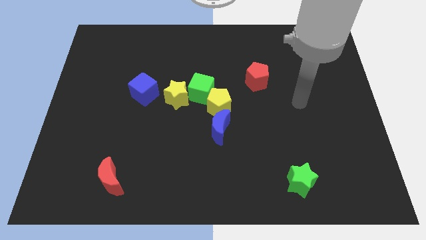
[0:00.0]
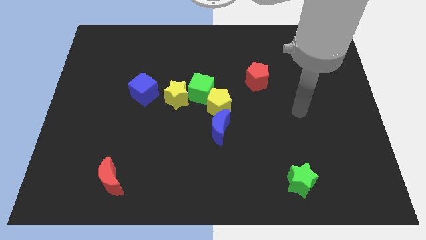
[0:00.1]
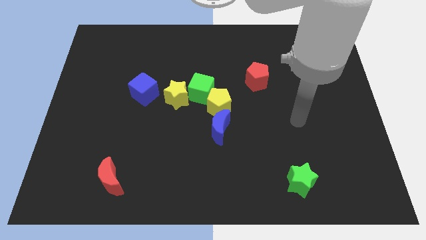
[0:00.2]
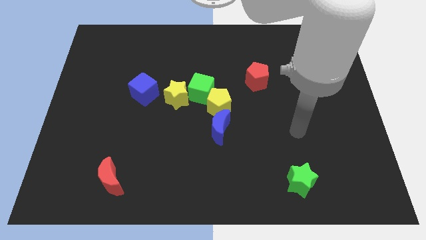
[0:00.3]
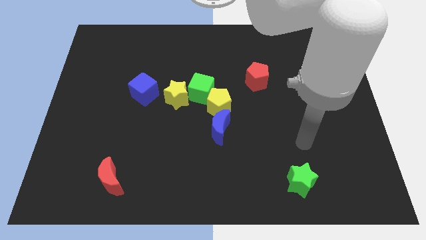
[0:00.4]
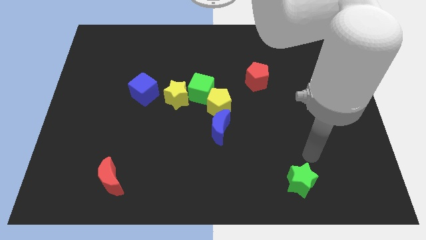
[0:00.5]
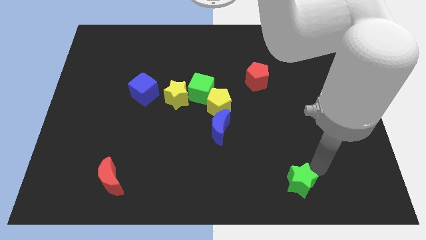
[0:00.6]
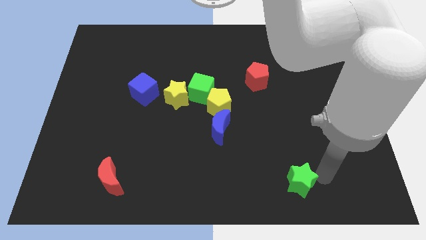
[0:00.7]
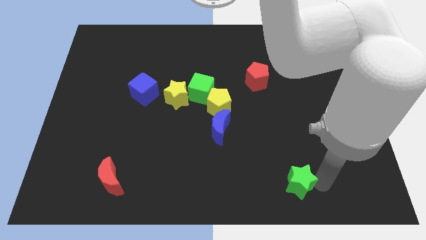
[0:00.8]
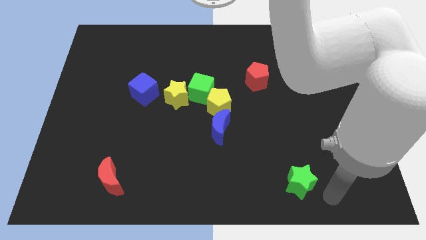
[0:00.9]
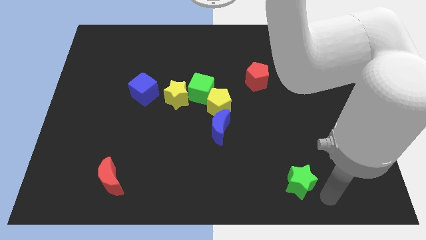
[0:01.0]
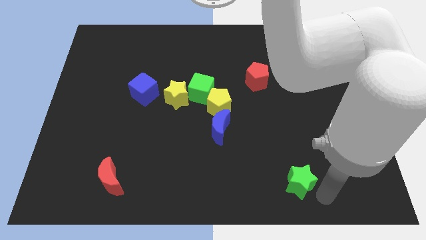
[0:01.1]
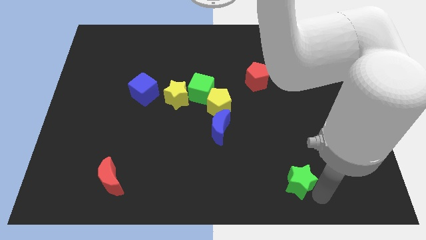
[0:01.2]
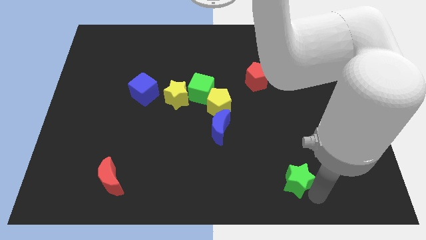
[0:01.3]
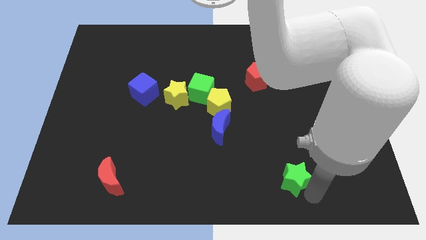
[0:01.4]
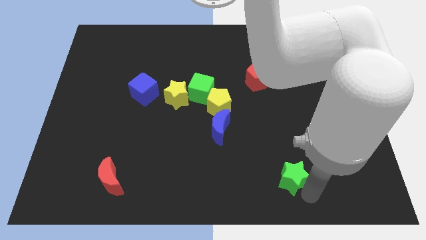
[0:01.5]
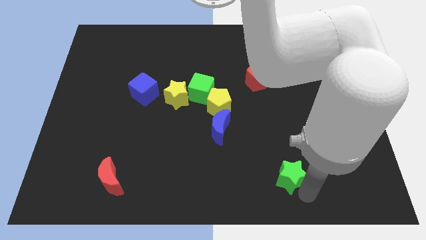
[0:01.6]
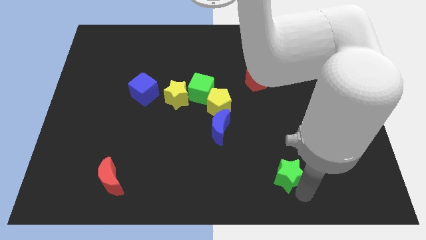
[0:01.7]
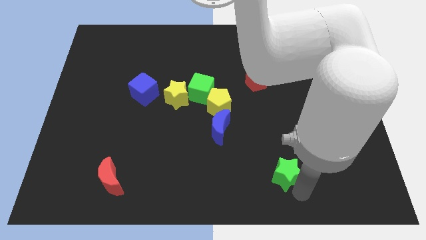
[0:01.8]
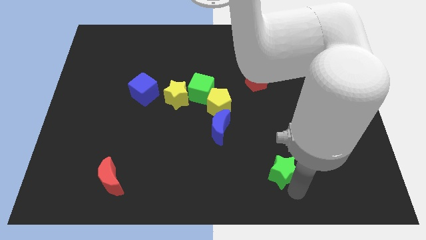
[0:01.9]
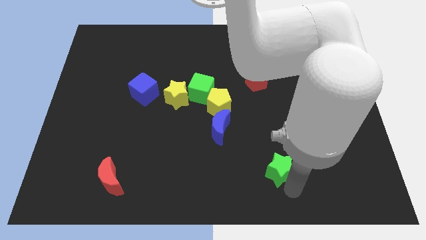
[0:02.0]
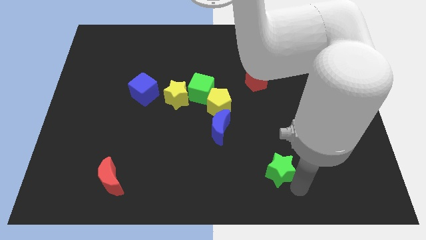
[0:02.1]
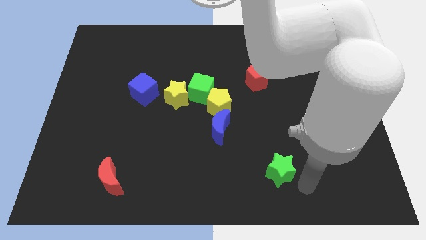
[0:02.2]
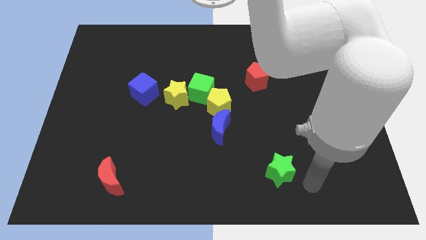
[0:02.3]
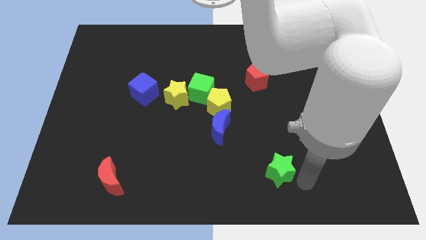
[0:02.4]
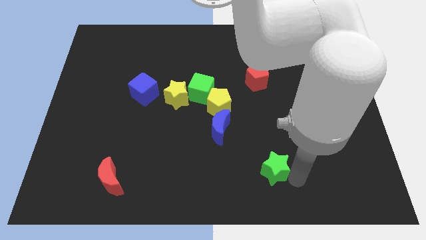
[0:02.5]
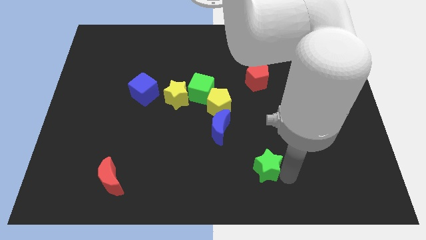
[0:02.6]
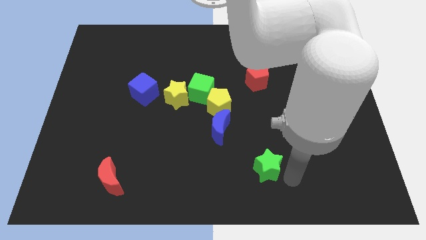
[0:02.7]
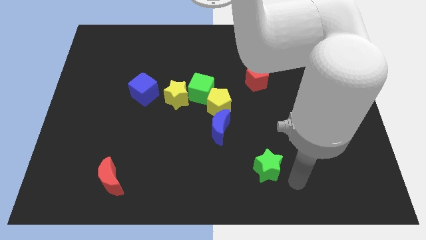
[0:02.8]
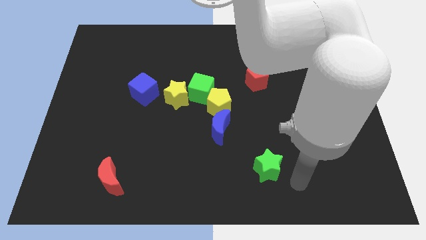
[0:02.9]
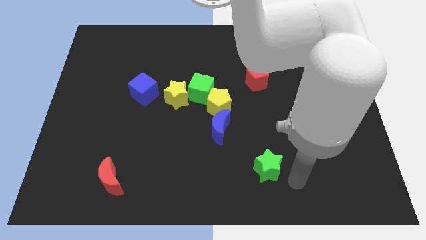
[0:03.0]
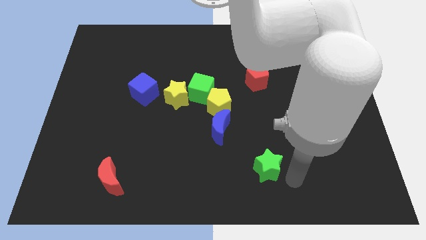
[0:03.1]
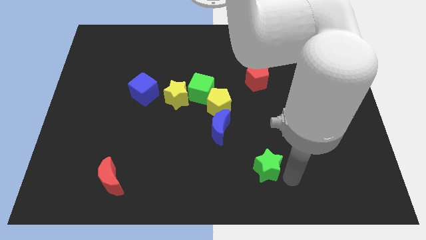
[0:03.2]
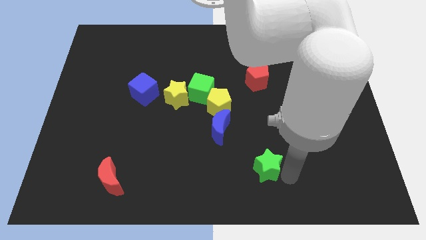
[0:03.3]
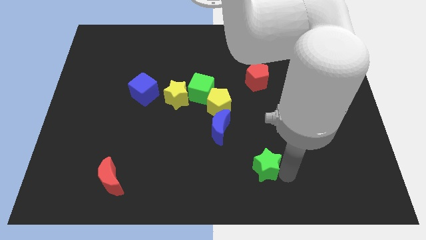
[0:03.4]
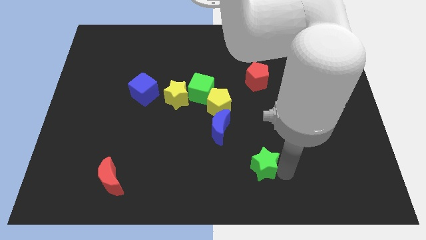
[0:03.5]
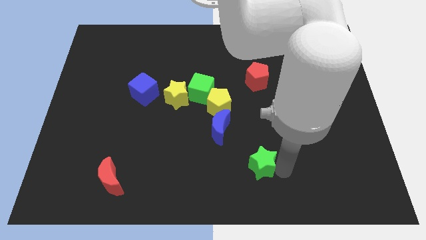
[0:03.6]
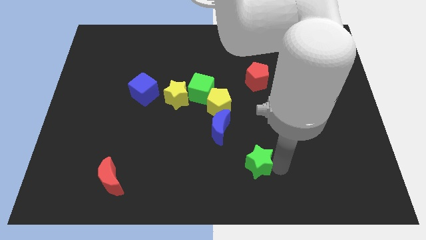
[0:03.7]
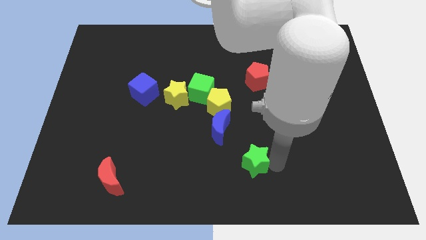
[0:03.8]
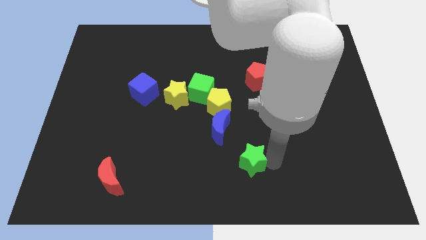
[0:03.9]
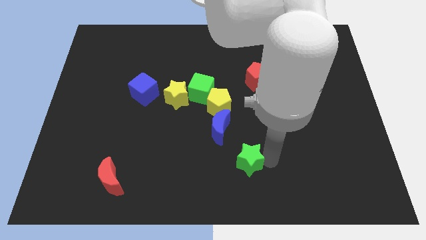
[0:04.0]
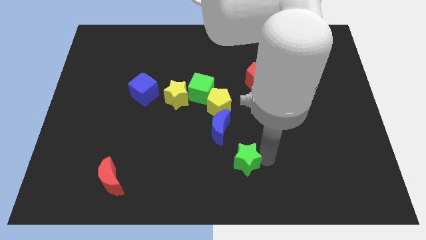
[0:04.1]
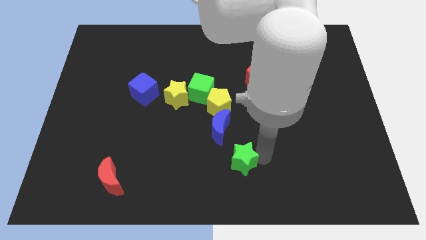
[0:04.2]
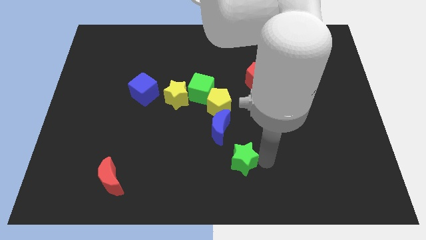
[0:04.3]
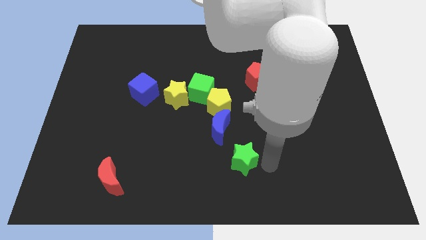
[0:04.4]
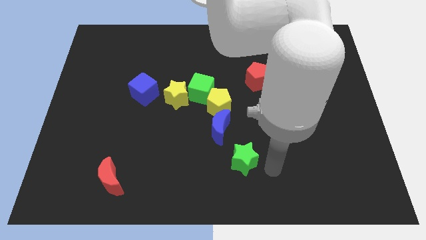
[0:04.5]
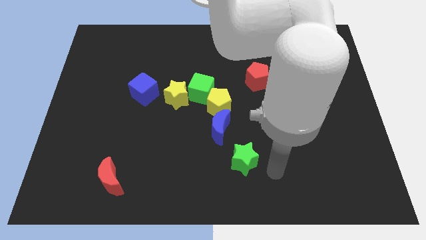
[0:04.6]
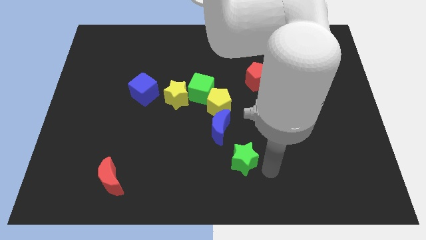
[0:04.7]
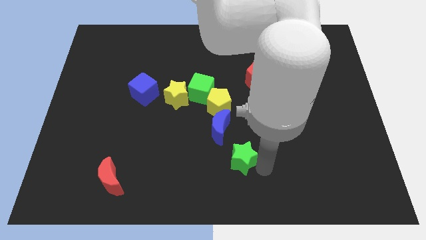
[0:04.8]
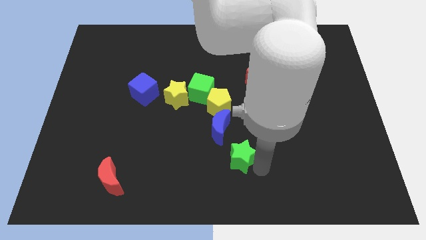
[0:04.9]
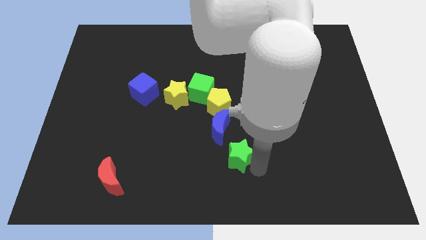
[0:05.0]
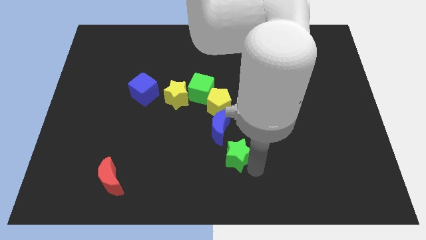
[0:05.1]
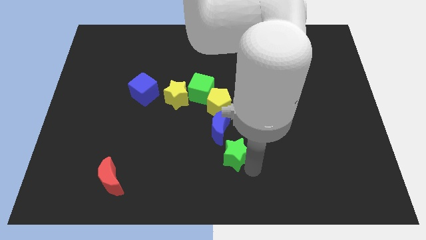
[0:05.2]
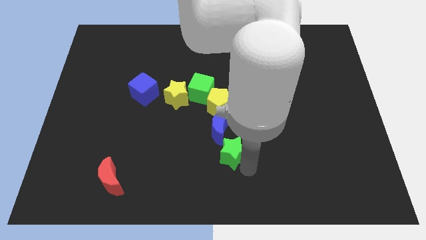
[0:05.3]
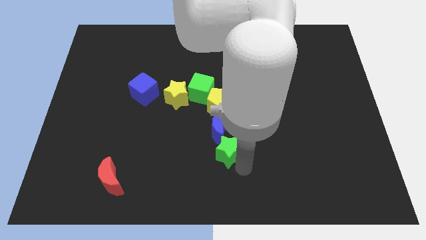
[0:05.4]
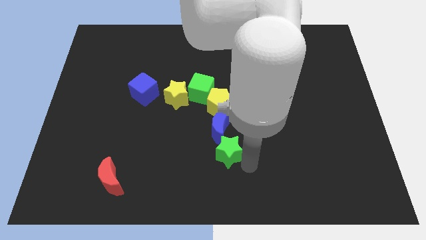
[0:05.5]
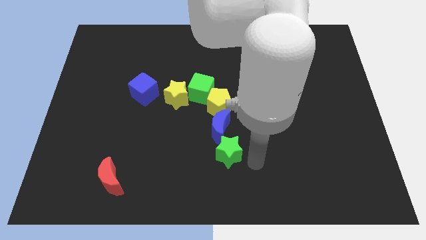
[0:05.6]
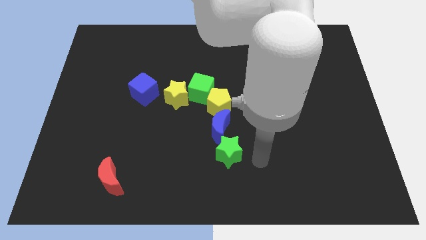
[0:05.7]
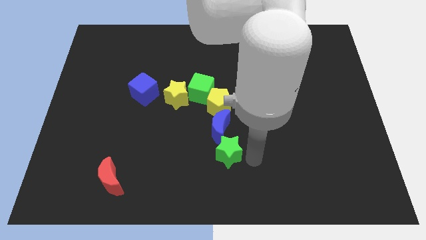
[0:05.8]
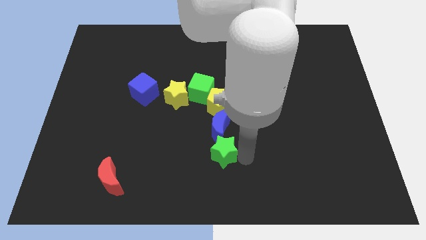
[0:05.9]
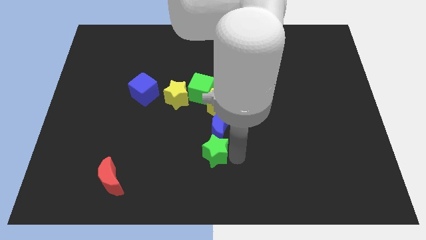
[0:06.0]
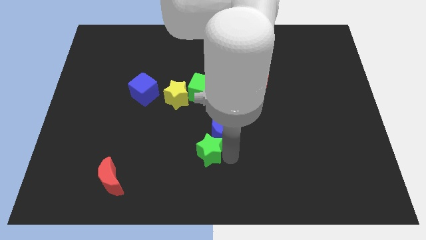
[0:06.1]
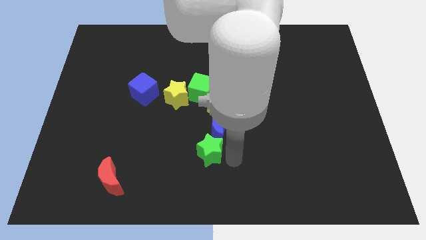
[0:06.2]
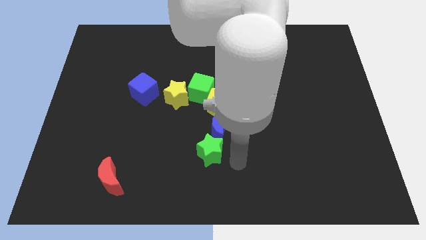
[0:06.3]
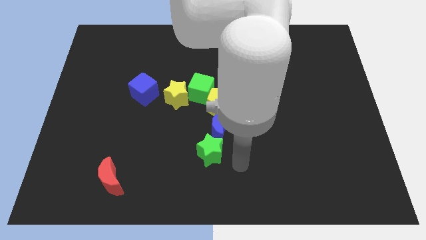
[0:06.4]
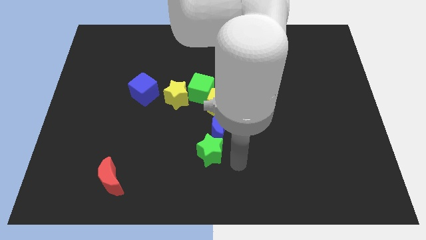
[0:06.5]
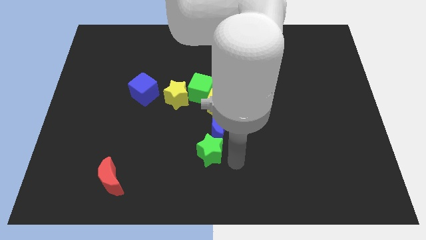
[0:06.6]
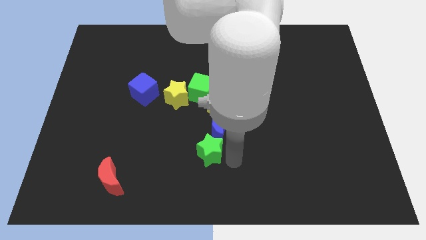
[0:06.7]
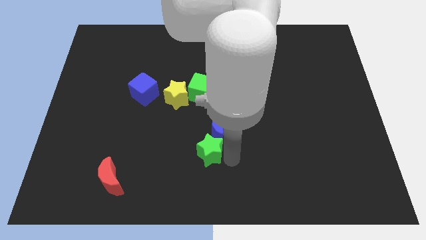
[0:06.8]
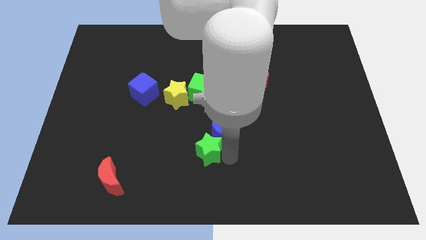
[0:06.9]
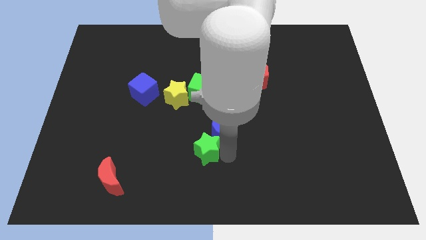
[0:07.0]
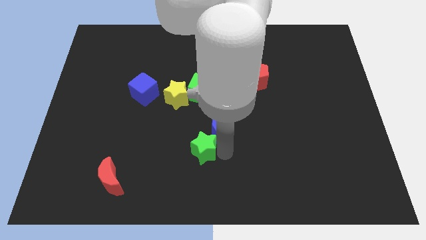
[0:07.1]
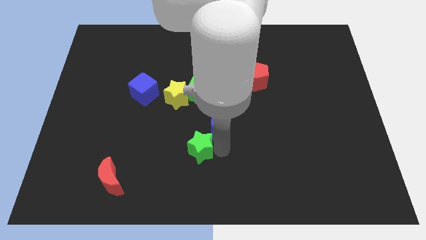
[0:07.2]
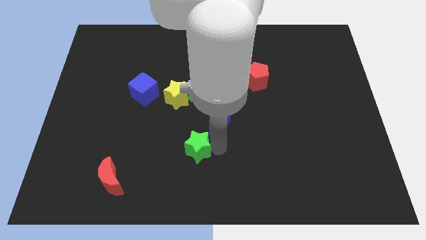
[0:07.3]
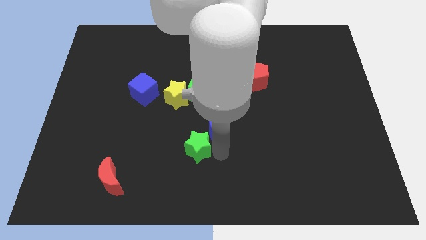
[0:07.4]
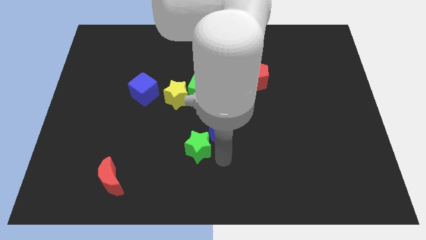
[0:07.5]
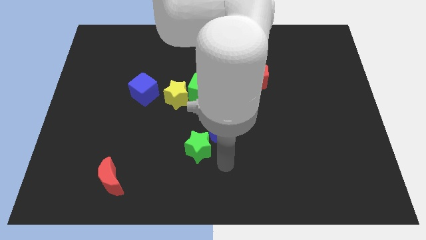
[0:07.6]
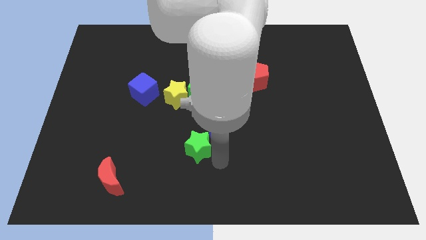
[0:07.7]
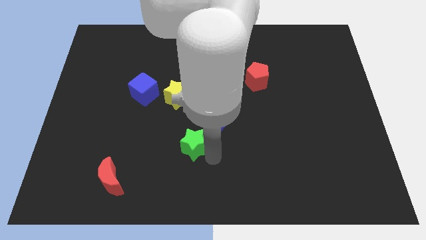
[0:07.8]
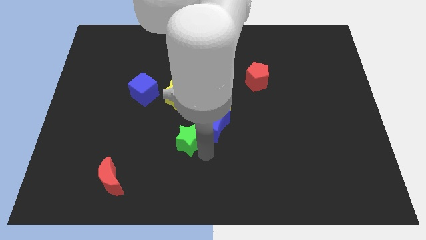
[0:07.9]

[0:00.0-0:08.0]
put the green star below the yellow star
